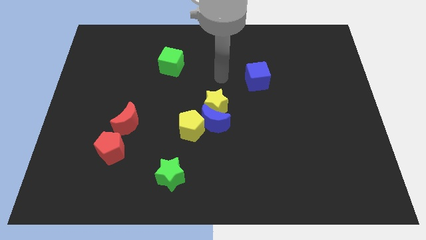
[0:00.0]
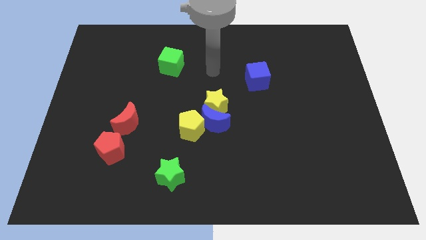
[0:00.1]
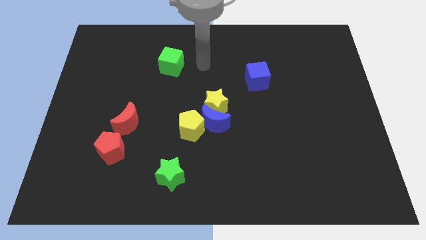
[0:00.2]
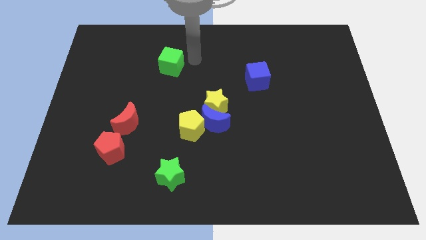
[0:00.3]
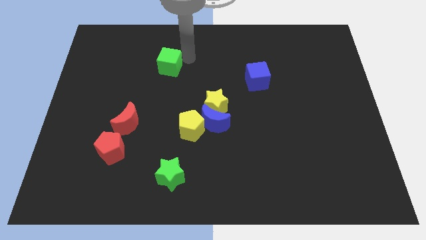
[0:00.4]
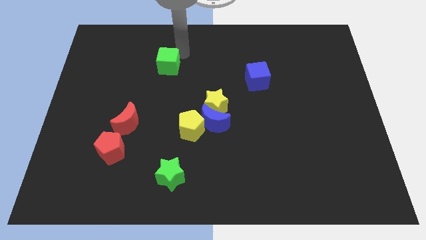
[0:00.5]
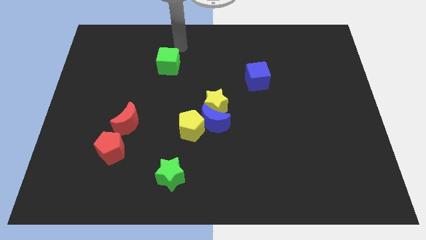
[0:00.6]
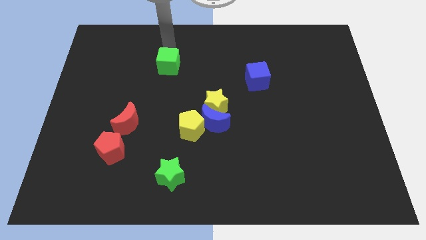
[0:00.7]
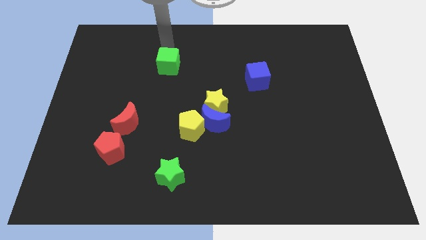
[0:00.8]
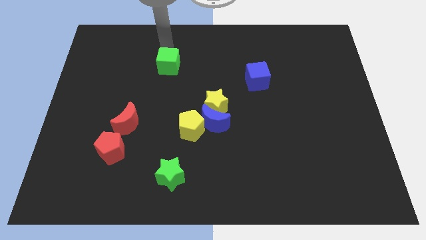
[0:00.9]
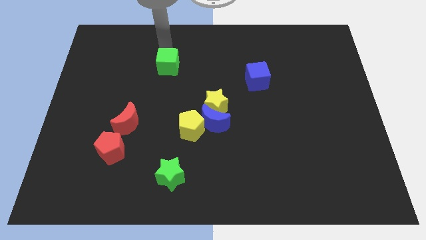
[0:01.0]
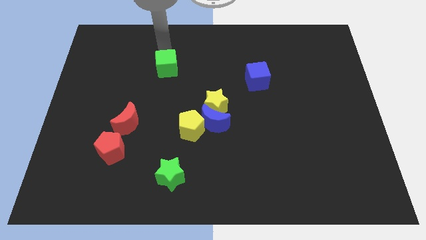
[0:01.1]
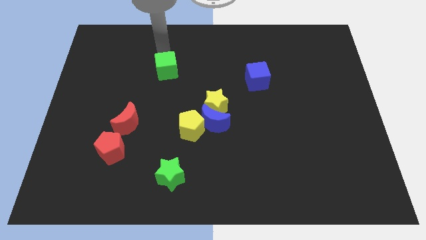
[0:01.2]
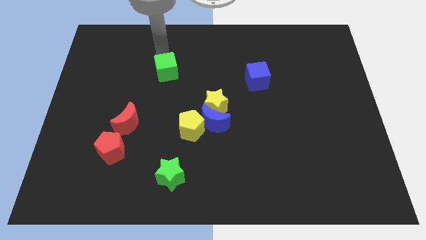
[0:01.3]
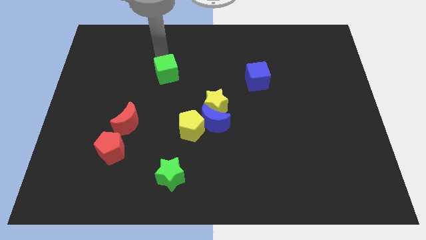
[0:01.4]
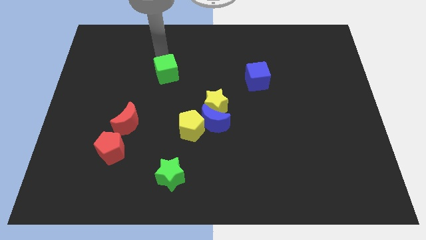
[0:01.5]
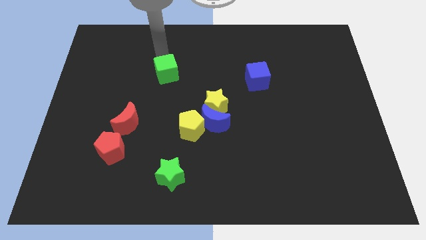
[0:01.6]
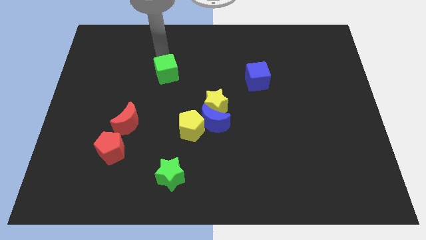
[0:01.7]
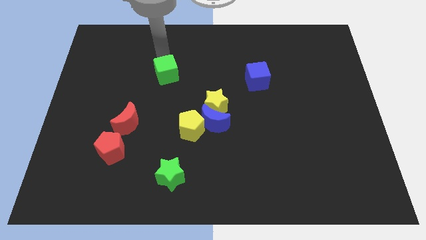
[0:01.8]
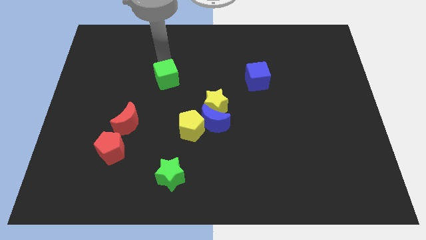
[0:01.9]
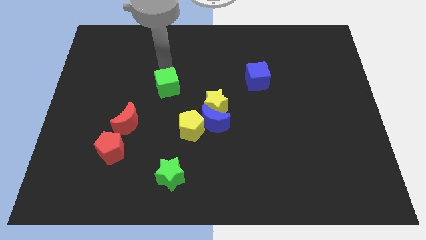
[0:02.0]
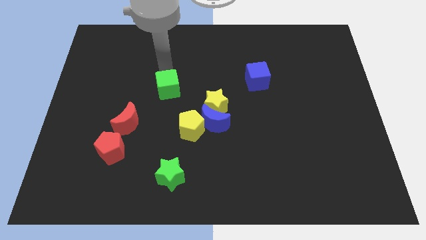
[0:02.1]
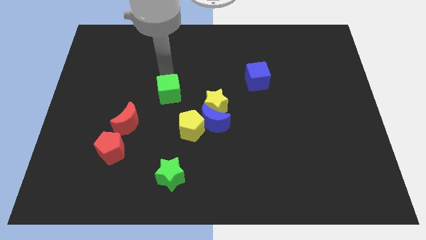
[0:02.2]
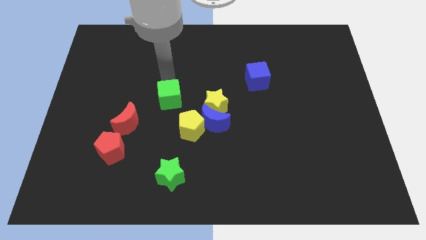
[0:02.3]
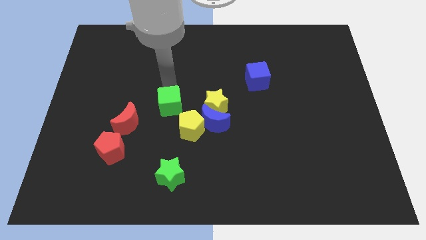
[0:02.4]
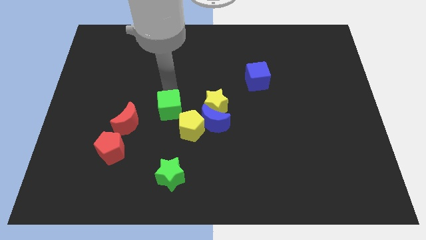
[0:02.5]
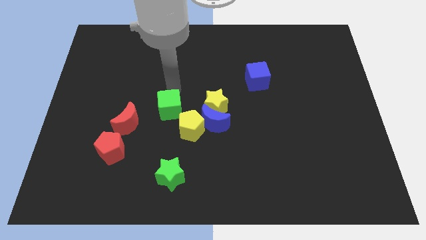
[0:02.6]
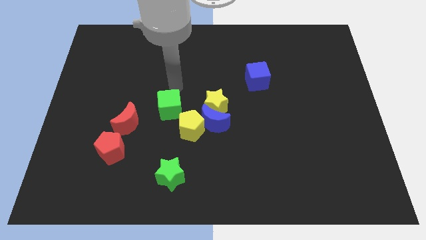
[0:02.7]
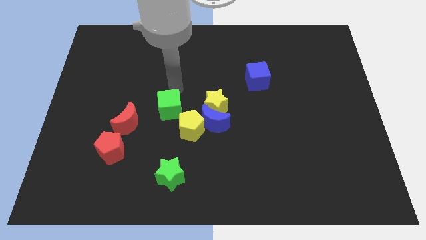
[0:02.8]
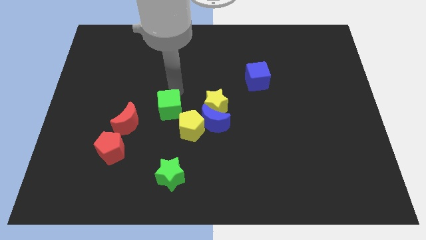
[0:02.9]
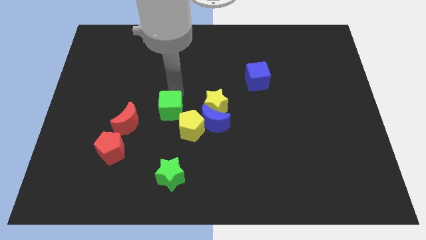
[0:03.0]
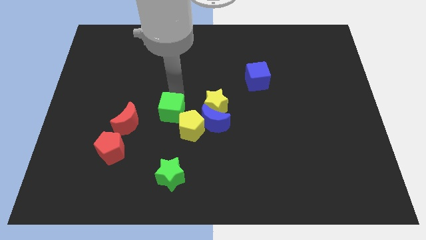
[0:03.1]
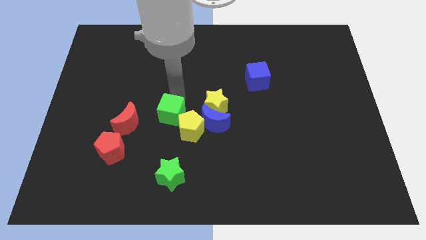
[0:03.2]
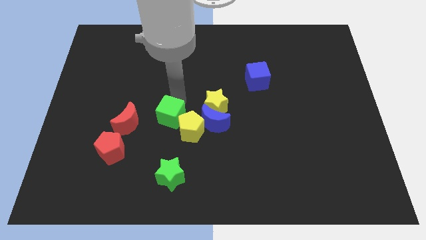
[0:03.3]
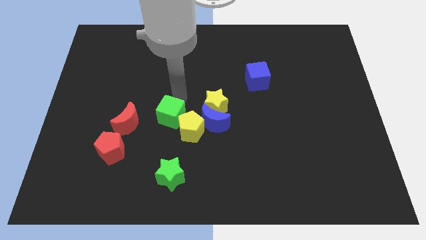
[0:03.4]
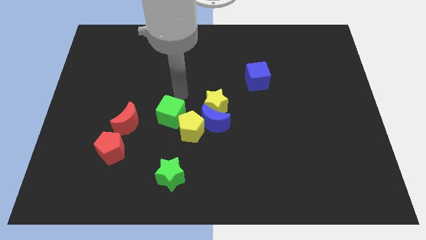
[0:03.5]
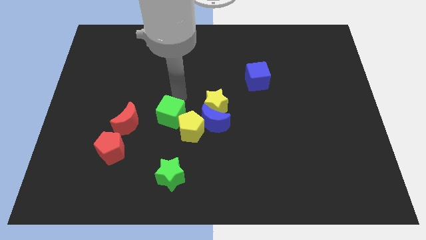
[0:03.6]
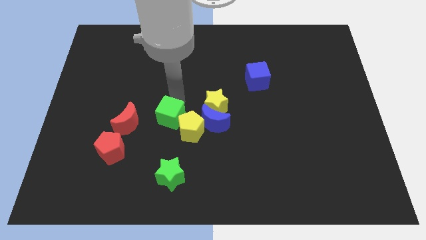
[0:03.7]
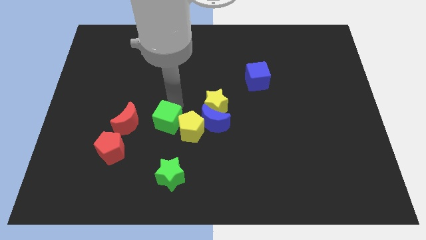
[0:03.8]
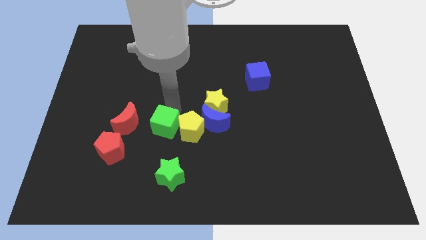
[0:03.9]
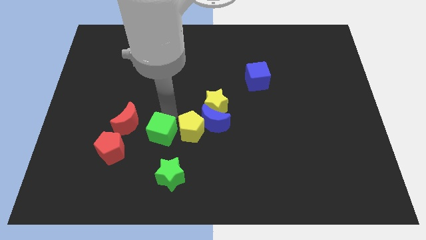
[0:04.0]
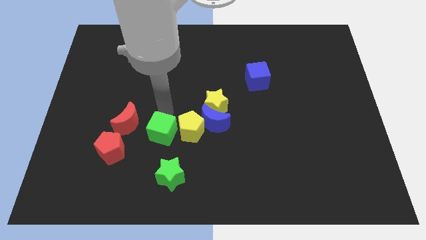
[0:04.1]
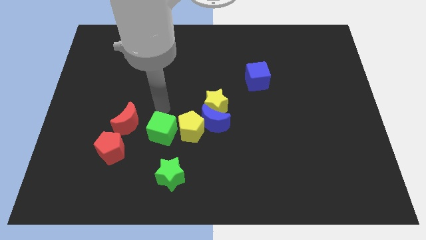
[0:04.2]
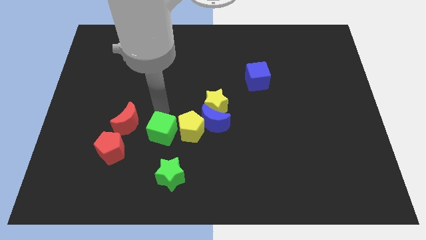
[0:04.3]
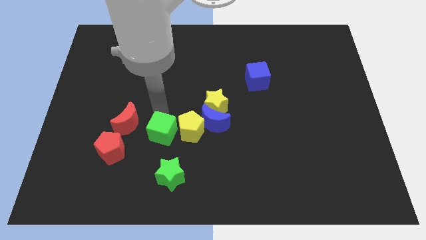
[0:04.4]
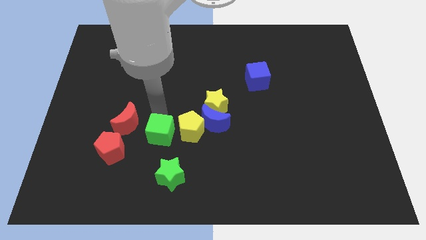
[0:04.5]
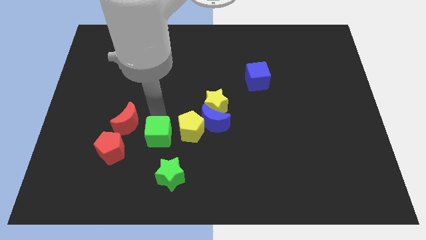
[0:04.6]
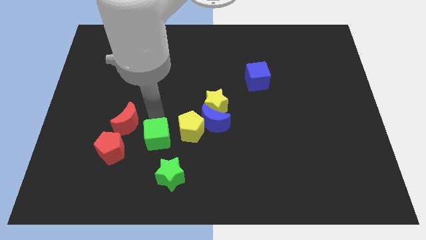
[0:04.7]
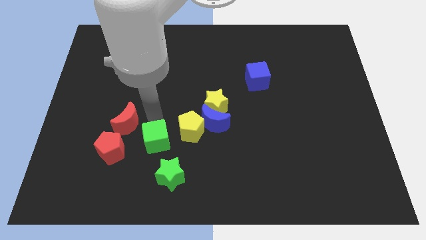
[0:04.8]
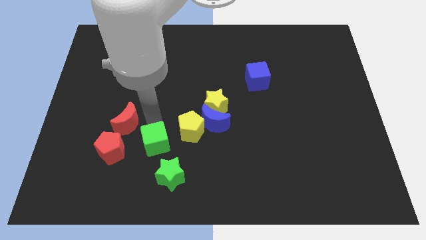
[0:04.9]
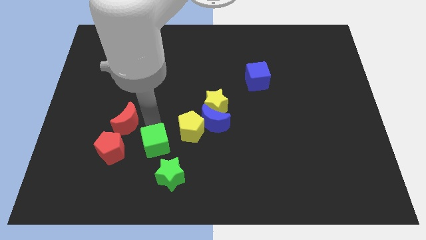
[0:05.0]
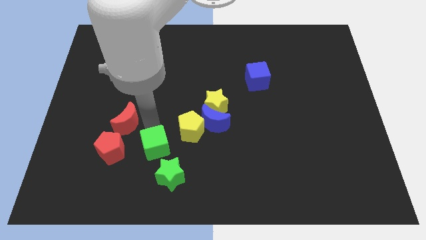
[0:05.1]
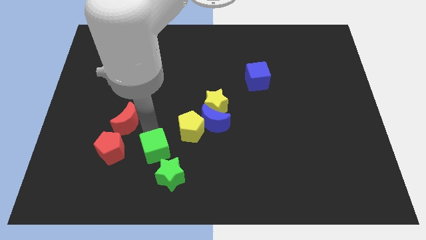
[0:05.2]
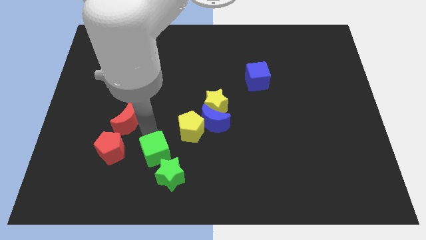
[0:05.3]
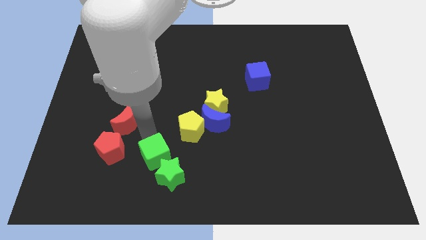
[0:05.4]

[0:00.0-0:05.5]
slide the green cube to the green star

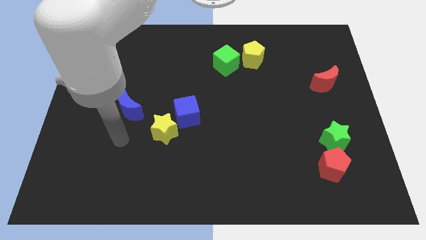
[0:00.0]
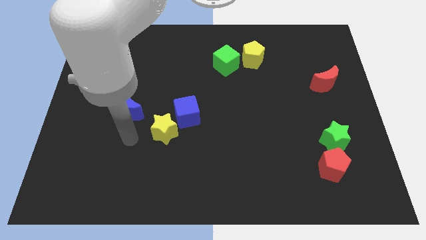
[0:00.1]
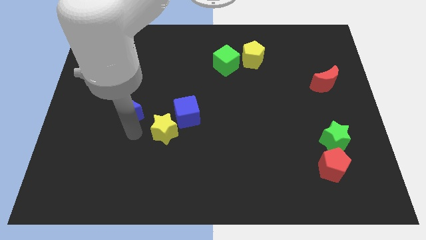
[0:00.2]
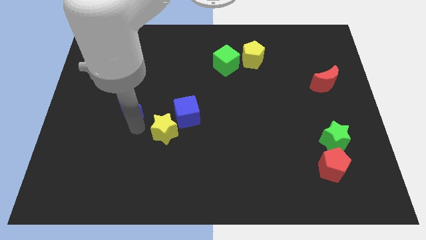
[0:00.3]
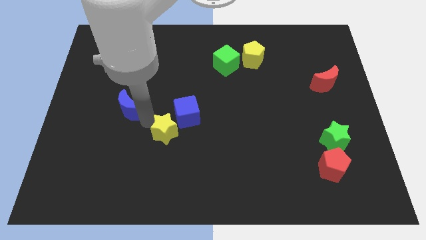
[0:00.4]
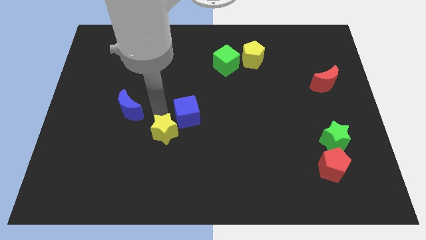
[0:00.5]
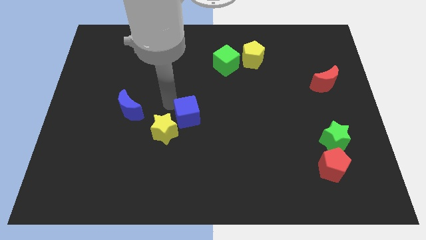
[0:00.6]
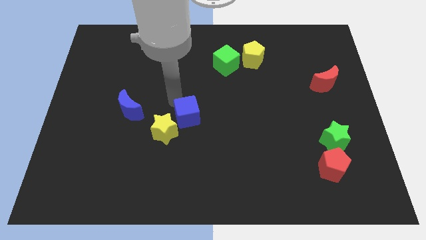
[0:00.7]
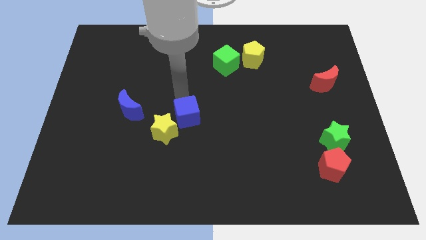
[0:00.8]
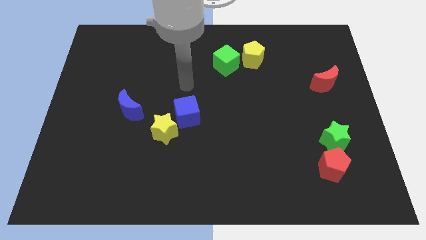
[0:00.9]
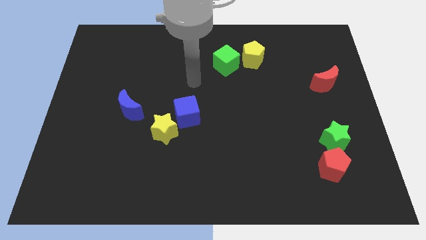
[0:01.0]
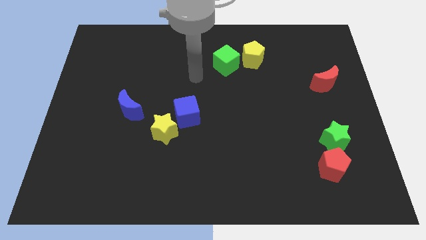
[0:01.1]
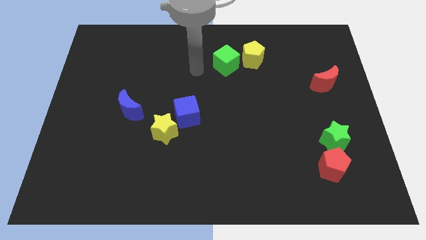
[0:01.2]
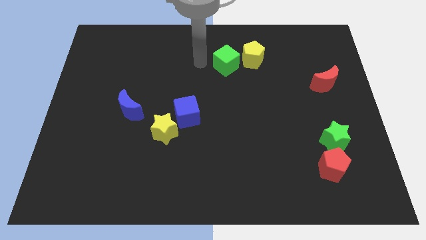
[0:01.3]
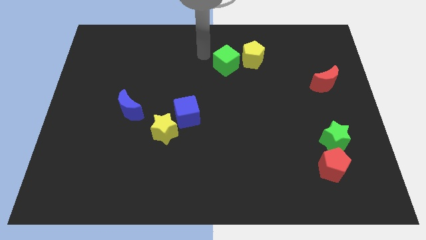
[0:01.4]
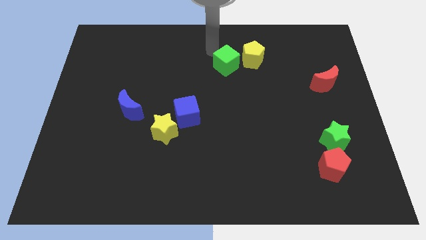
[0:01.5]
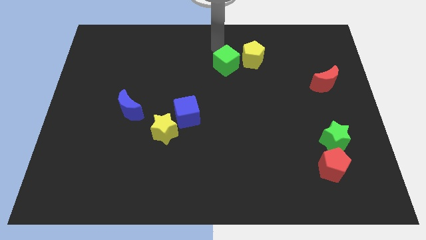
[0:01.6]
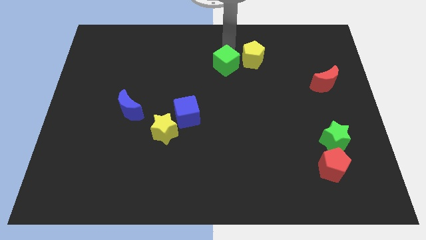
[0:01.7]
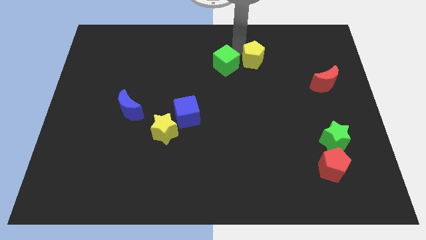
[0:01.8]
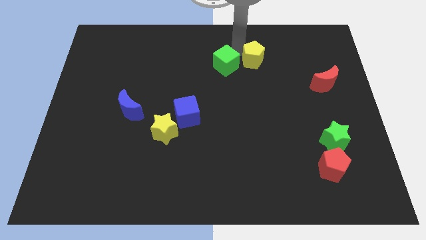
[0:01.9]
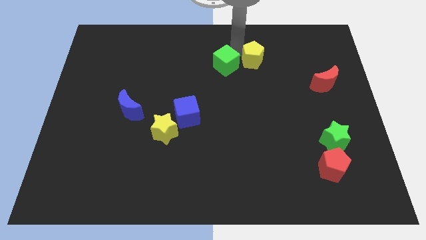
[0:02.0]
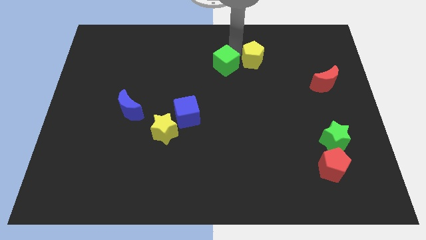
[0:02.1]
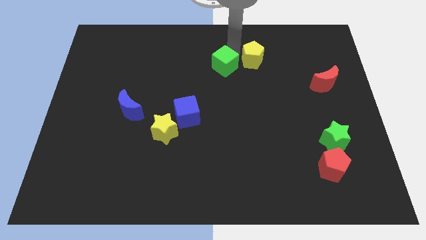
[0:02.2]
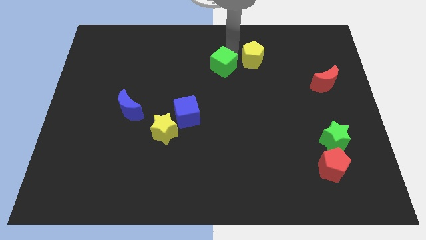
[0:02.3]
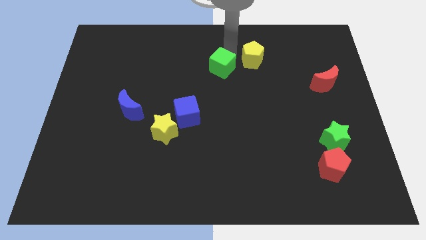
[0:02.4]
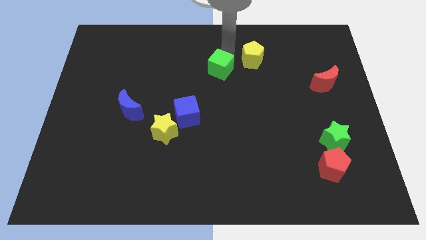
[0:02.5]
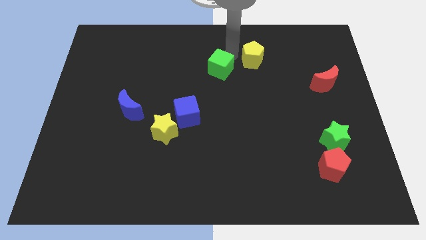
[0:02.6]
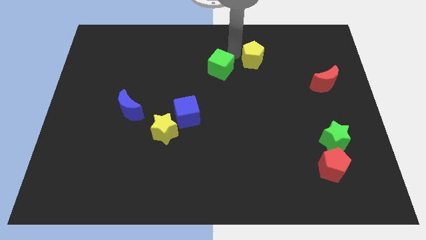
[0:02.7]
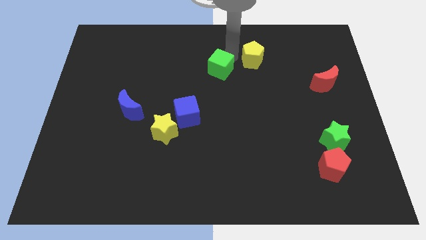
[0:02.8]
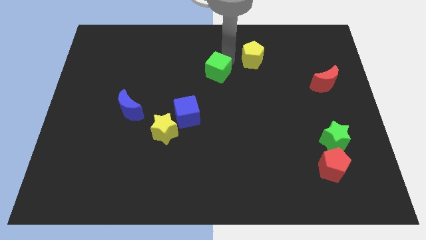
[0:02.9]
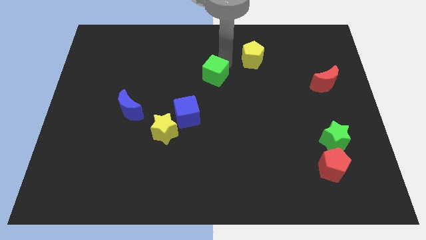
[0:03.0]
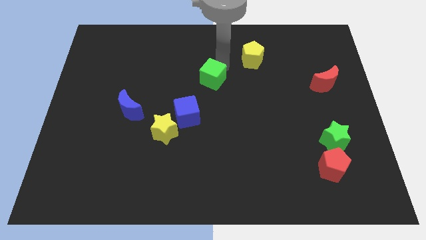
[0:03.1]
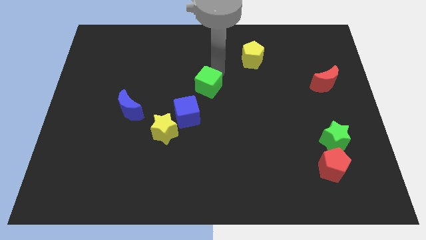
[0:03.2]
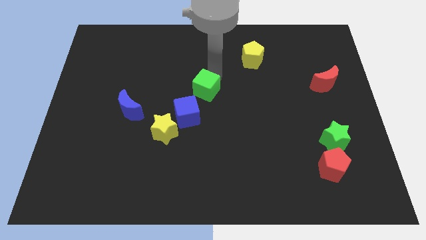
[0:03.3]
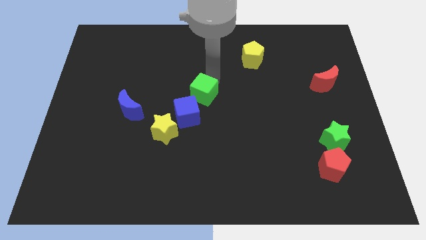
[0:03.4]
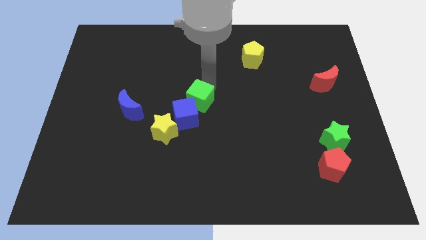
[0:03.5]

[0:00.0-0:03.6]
slide the green cube towards the blue cube
